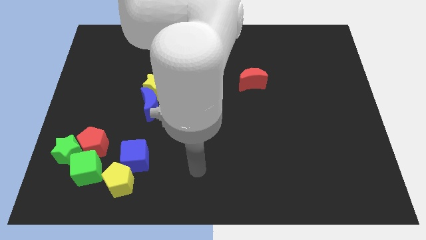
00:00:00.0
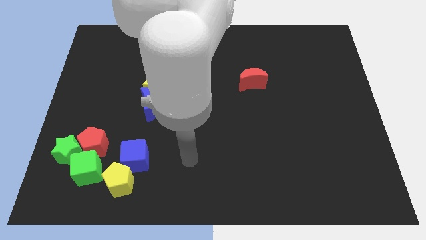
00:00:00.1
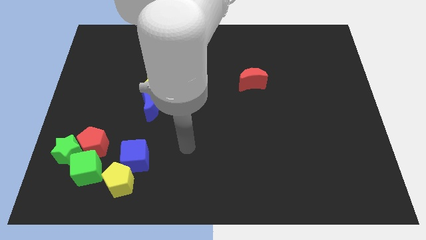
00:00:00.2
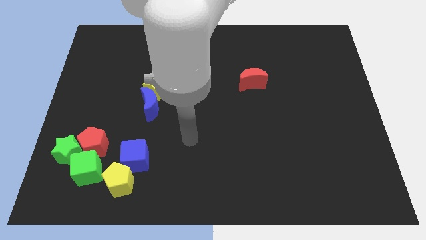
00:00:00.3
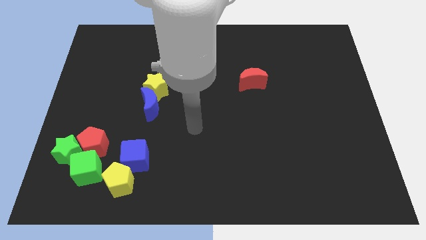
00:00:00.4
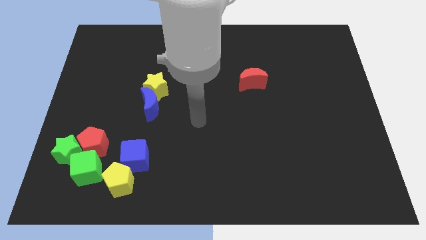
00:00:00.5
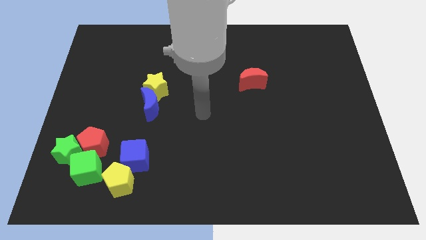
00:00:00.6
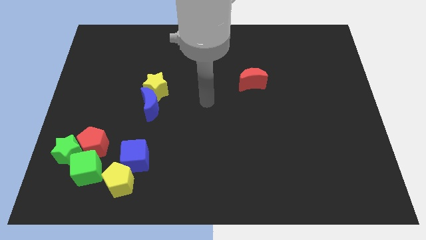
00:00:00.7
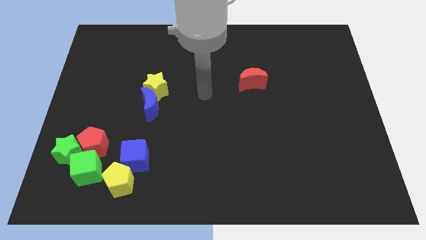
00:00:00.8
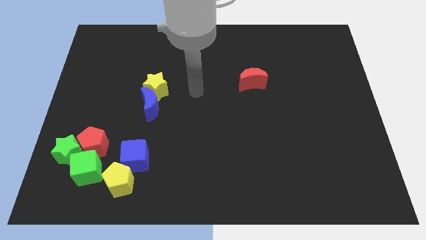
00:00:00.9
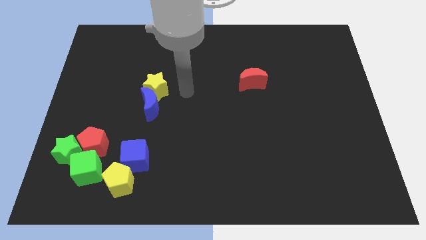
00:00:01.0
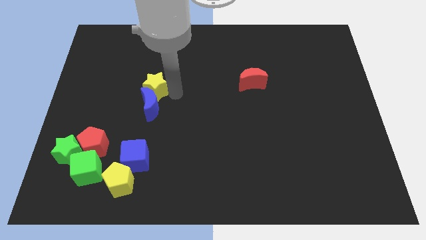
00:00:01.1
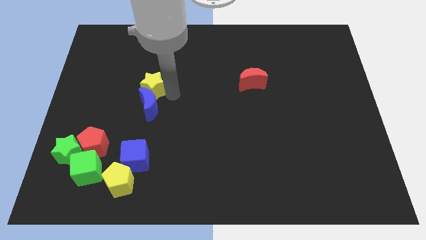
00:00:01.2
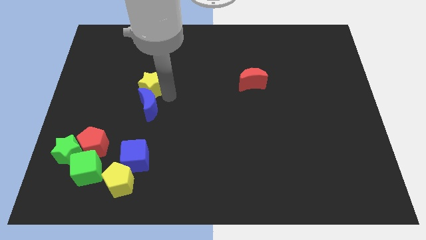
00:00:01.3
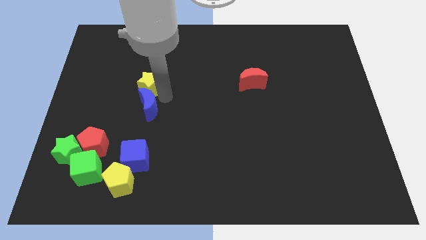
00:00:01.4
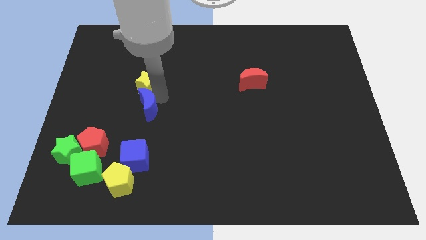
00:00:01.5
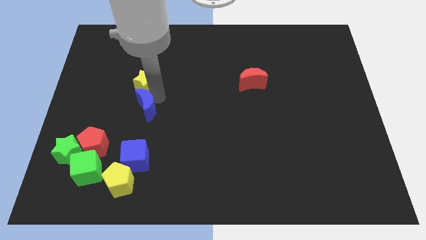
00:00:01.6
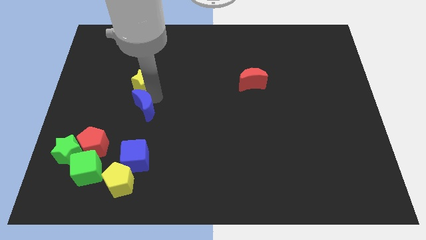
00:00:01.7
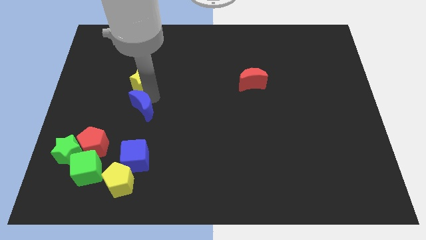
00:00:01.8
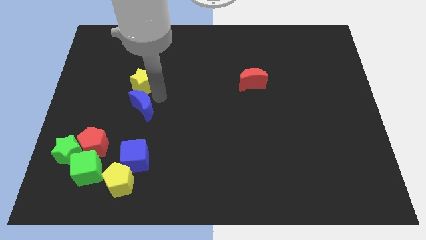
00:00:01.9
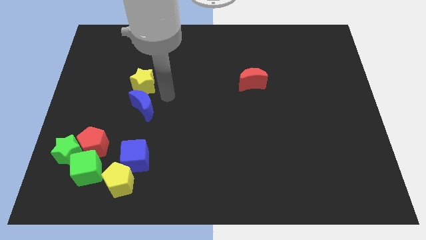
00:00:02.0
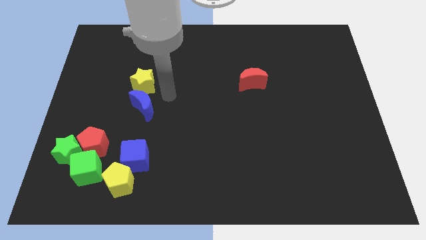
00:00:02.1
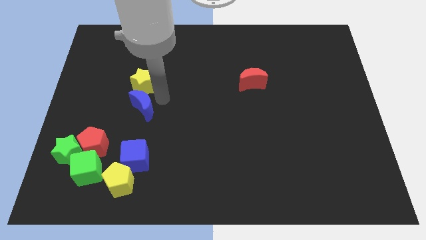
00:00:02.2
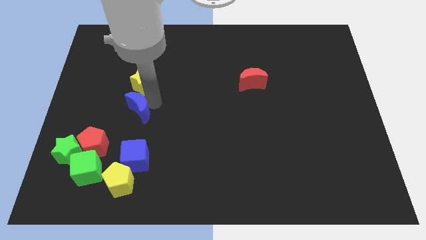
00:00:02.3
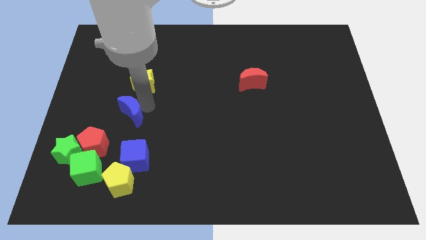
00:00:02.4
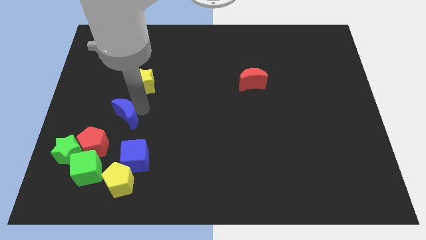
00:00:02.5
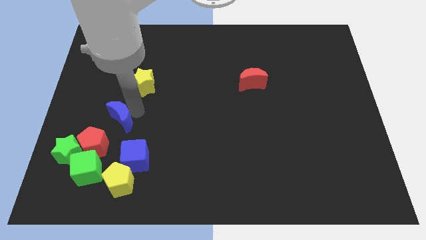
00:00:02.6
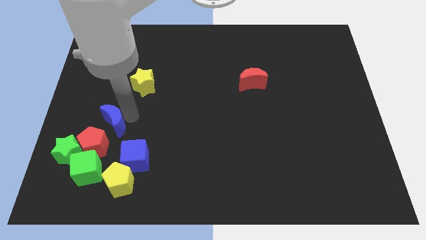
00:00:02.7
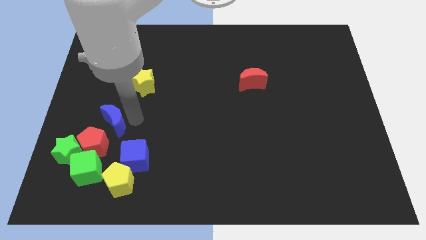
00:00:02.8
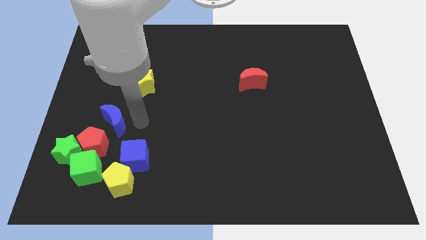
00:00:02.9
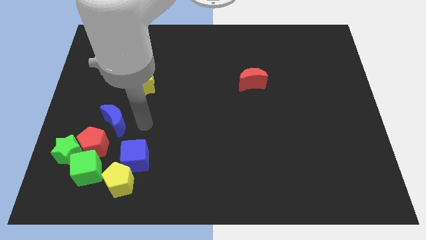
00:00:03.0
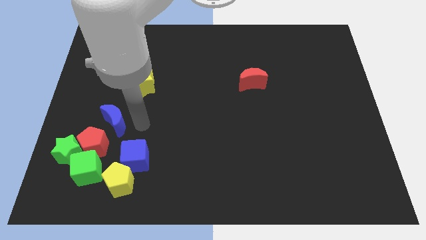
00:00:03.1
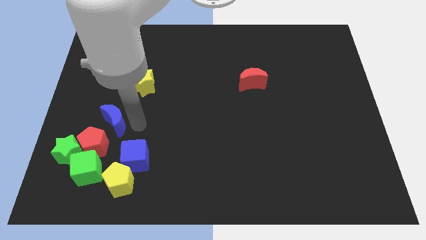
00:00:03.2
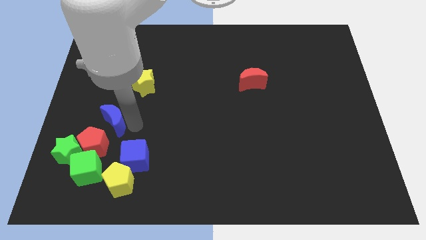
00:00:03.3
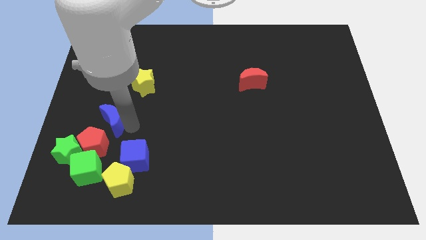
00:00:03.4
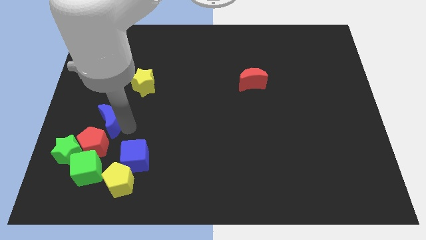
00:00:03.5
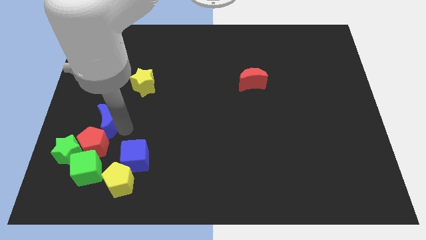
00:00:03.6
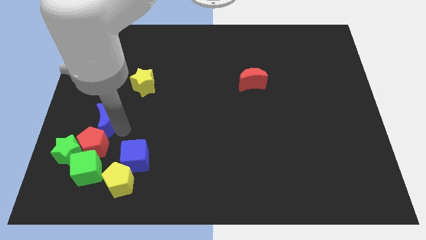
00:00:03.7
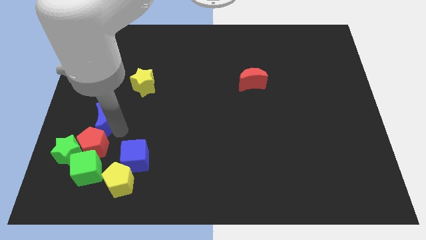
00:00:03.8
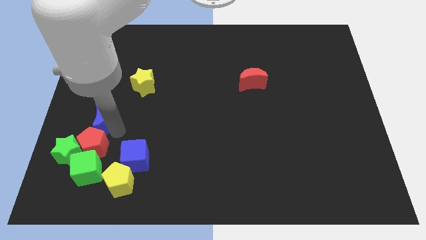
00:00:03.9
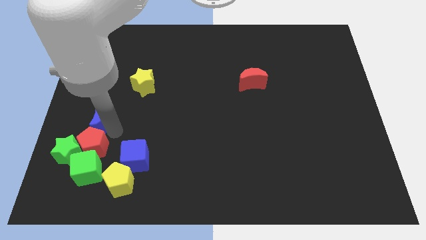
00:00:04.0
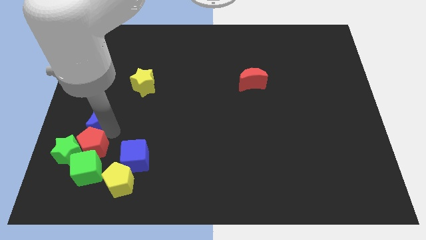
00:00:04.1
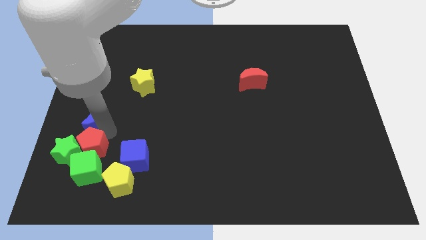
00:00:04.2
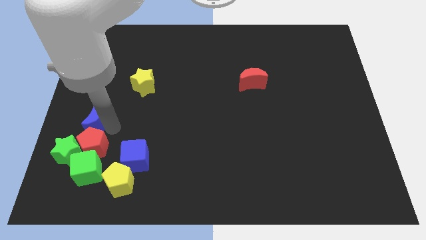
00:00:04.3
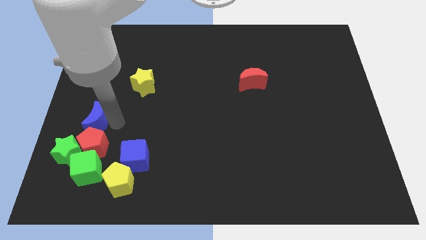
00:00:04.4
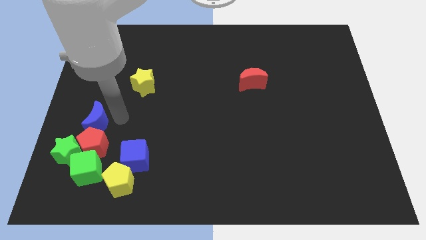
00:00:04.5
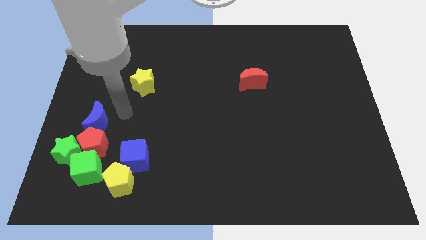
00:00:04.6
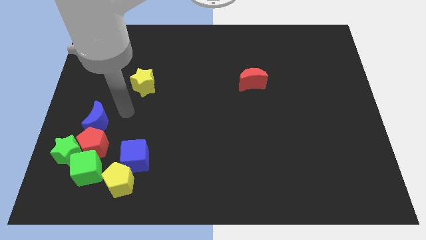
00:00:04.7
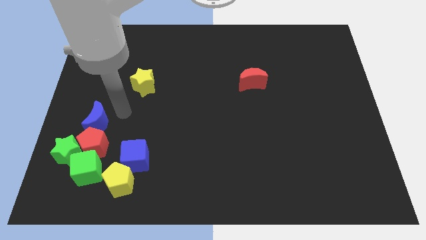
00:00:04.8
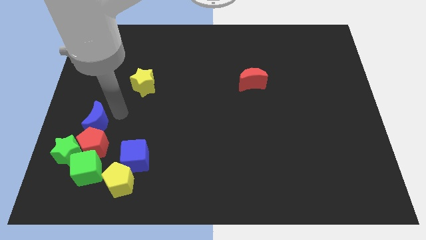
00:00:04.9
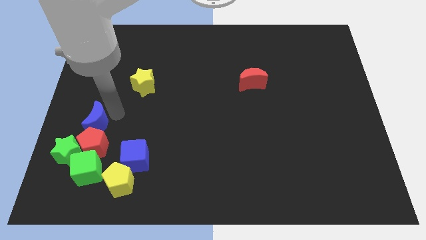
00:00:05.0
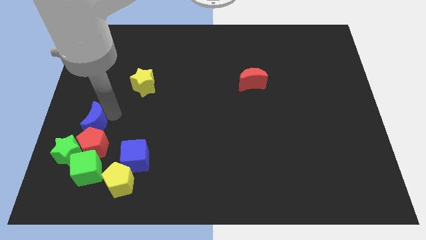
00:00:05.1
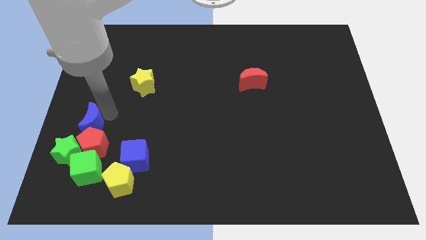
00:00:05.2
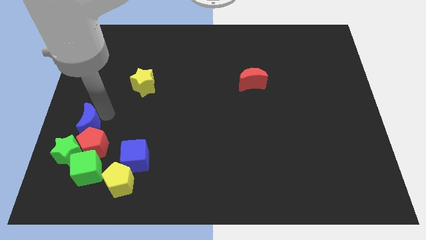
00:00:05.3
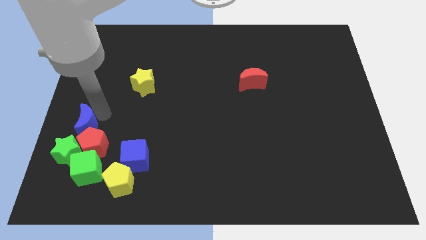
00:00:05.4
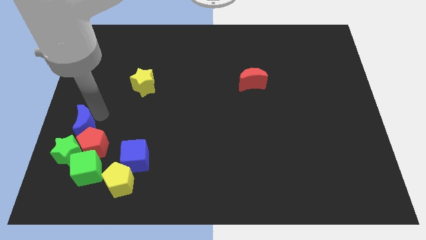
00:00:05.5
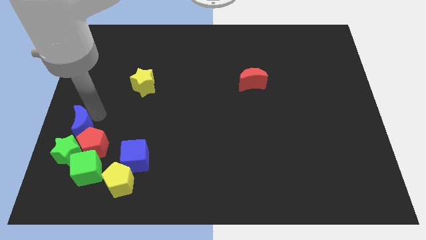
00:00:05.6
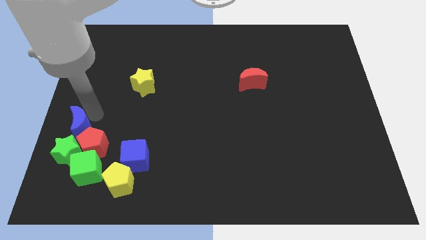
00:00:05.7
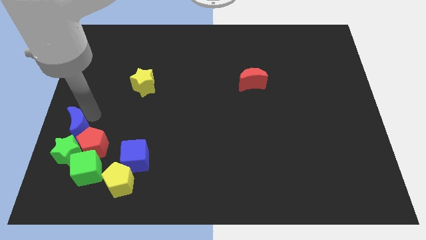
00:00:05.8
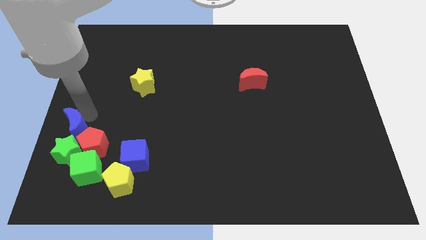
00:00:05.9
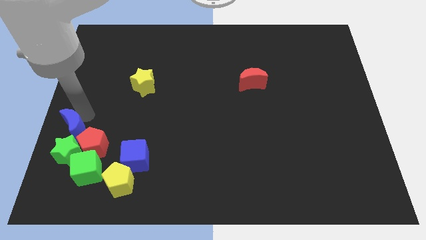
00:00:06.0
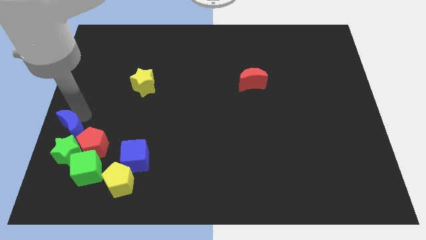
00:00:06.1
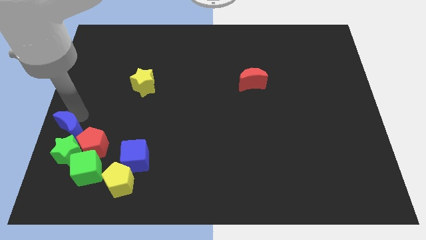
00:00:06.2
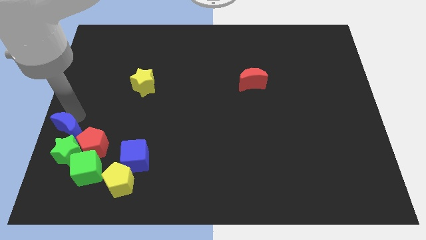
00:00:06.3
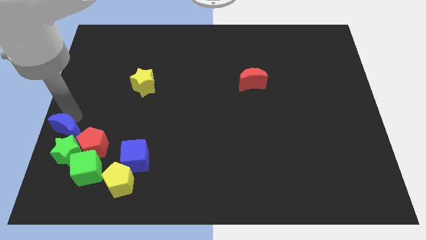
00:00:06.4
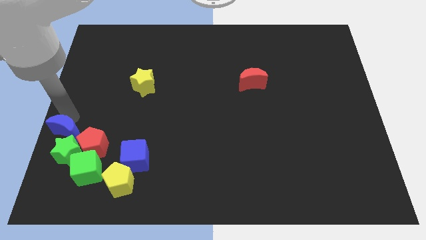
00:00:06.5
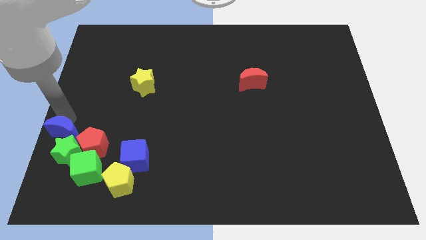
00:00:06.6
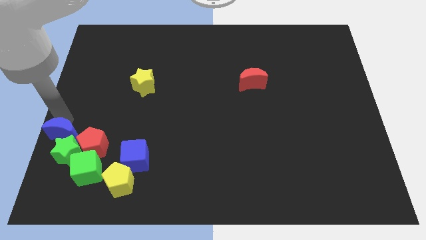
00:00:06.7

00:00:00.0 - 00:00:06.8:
put the blue moon next to the green star

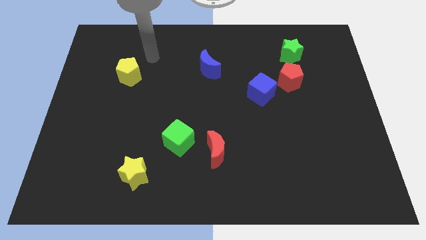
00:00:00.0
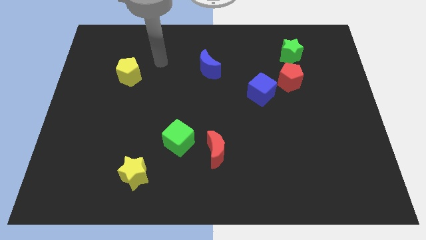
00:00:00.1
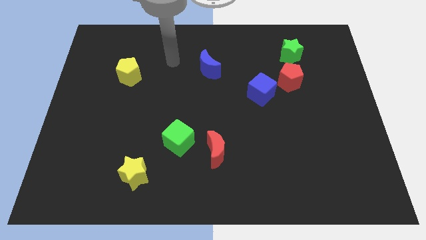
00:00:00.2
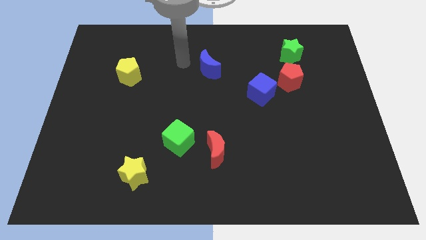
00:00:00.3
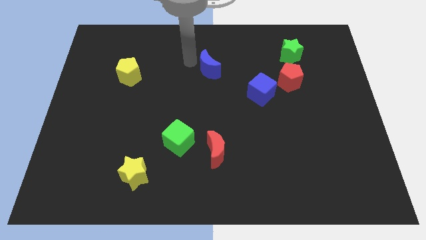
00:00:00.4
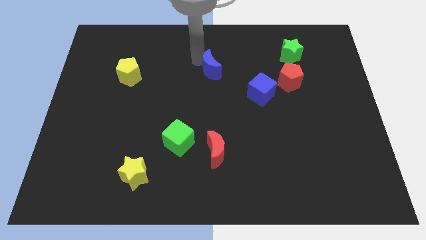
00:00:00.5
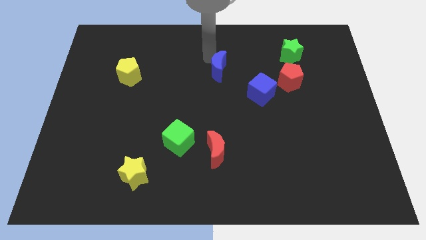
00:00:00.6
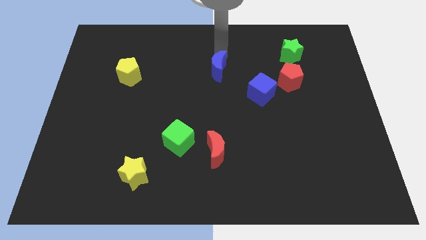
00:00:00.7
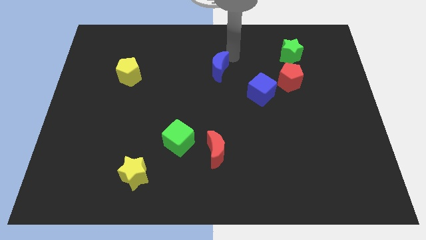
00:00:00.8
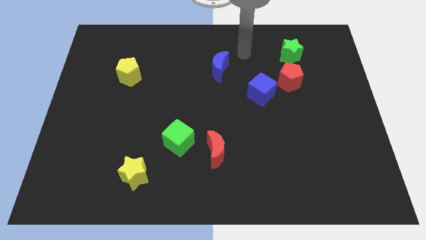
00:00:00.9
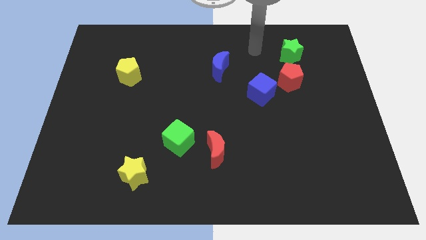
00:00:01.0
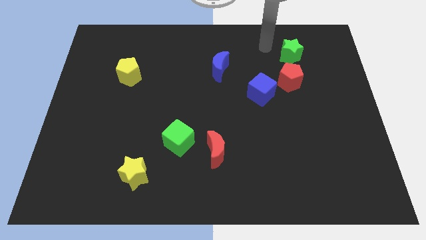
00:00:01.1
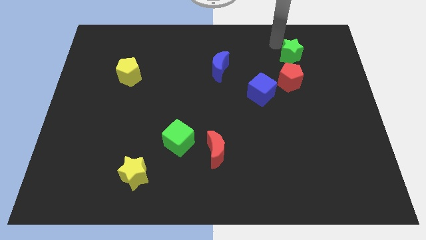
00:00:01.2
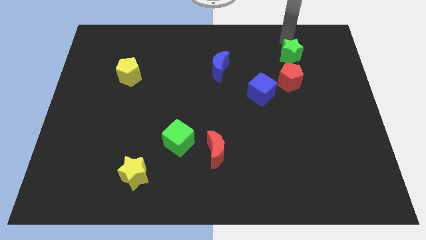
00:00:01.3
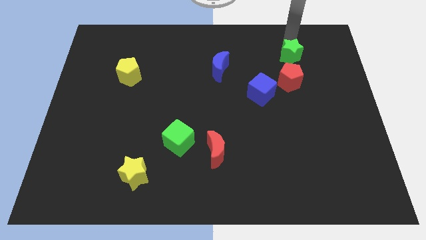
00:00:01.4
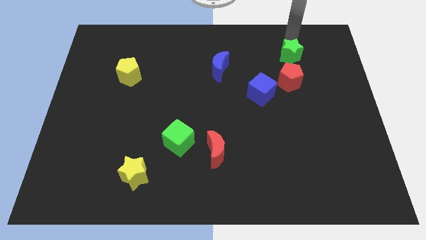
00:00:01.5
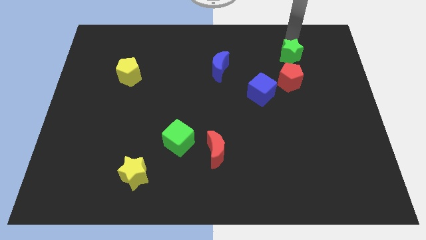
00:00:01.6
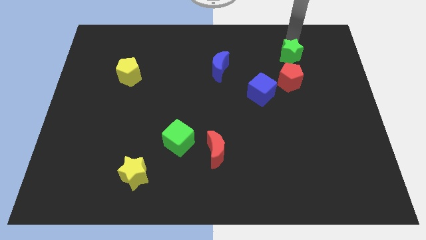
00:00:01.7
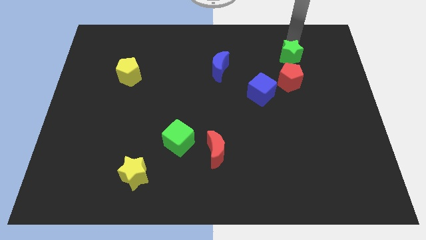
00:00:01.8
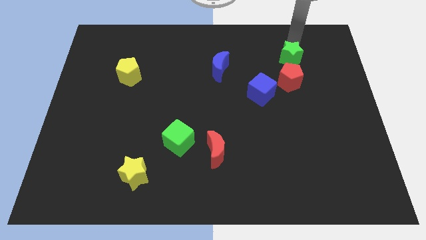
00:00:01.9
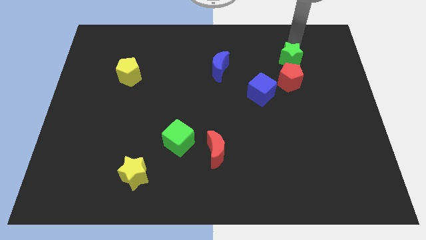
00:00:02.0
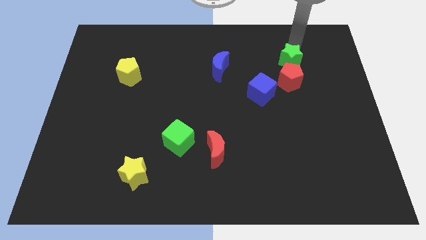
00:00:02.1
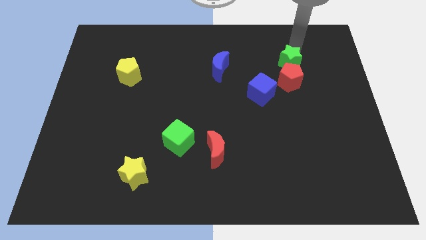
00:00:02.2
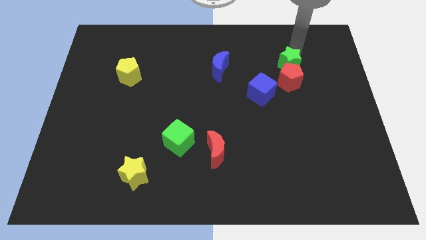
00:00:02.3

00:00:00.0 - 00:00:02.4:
put the green star to the red pentagon
